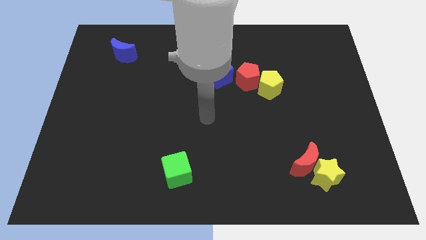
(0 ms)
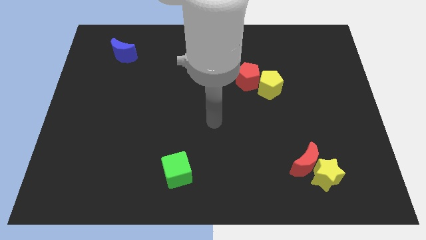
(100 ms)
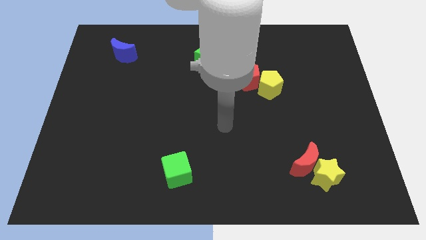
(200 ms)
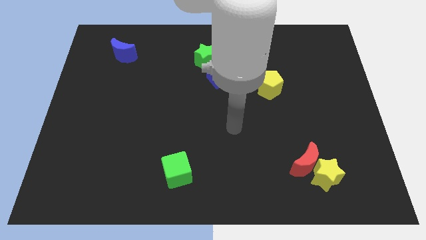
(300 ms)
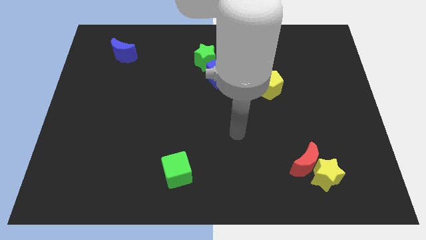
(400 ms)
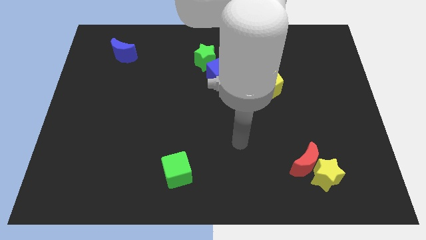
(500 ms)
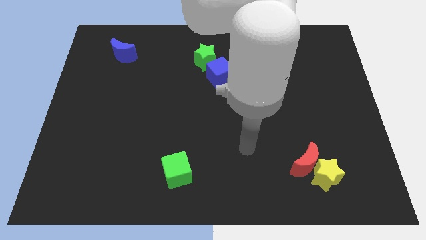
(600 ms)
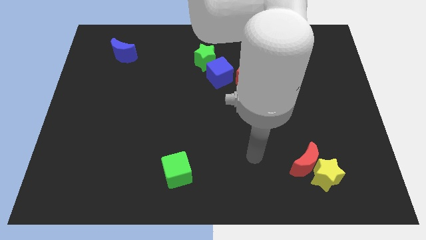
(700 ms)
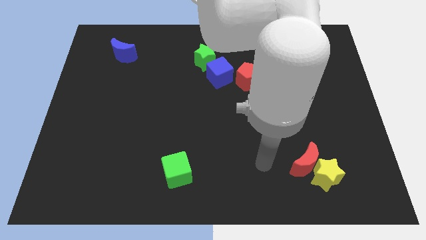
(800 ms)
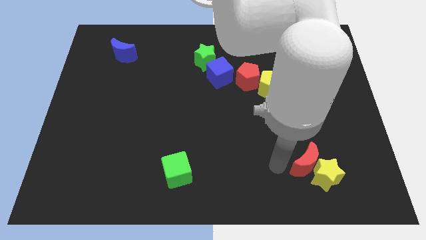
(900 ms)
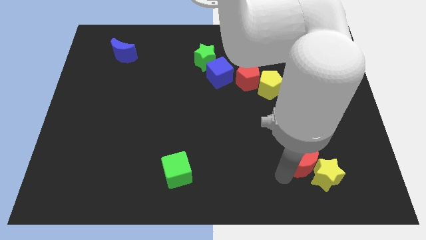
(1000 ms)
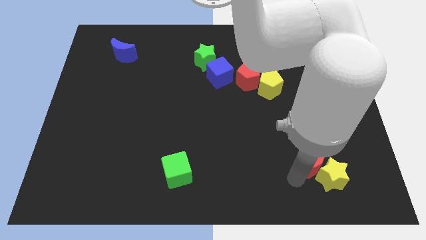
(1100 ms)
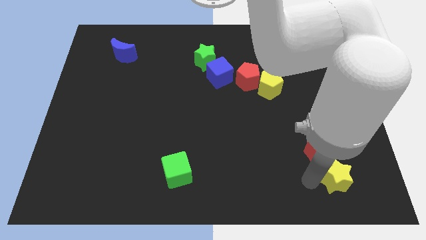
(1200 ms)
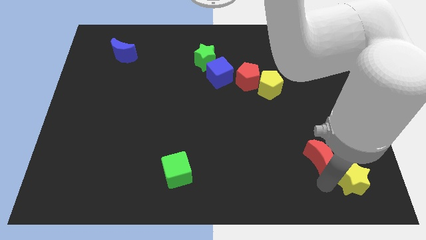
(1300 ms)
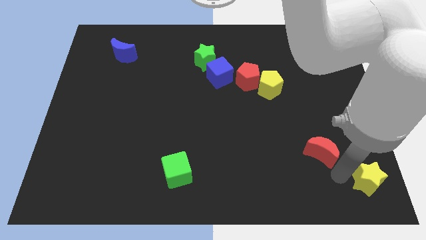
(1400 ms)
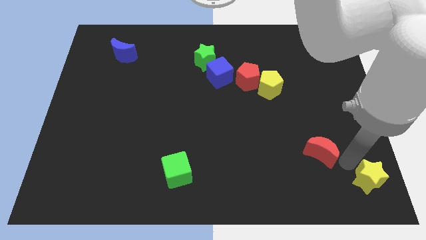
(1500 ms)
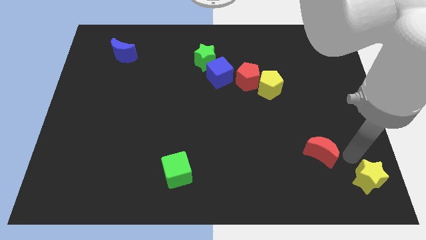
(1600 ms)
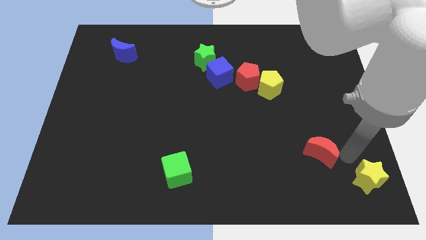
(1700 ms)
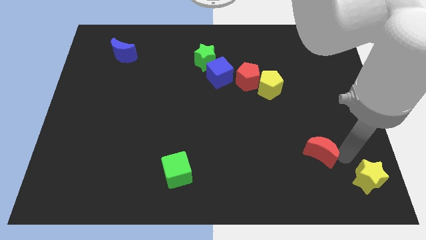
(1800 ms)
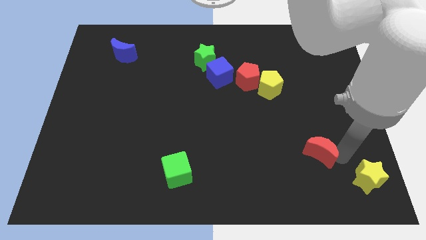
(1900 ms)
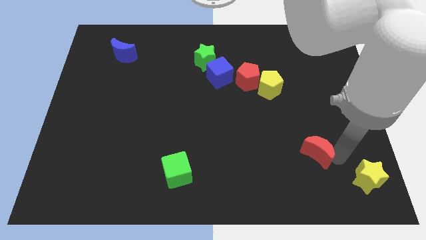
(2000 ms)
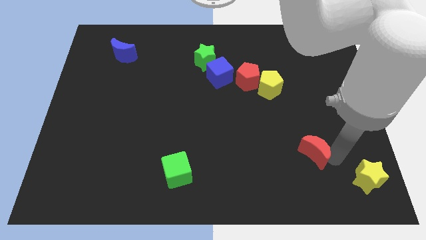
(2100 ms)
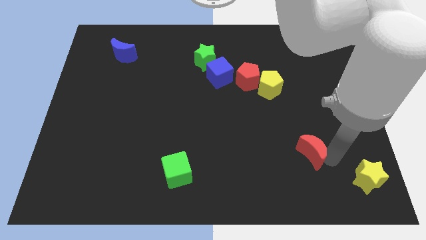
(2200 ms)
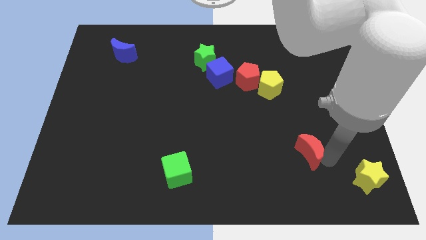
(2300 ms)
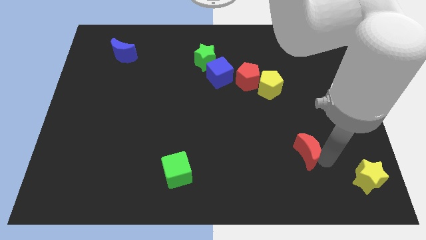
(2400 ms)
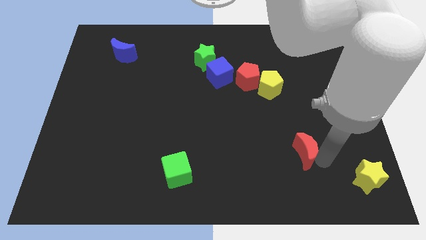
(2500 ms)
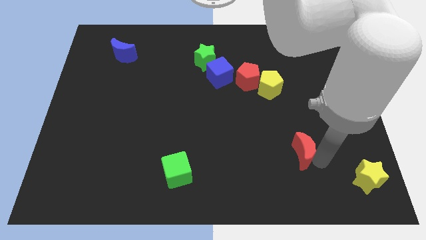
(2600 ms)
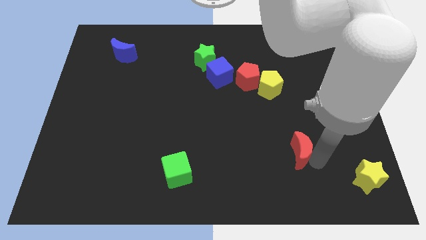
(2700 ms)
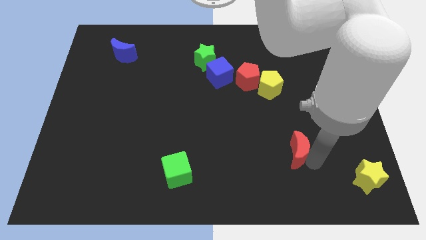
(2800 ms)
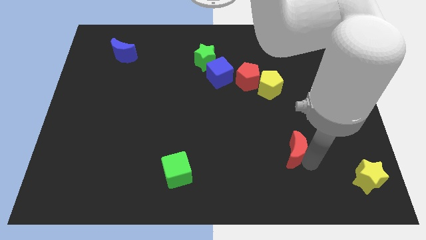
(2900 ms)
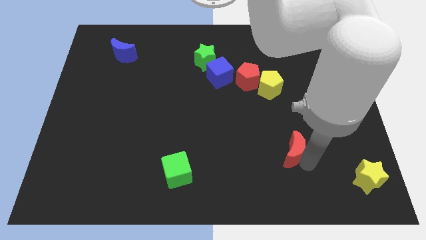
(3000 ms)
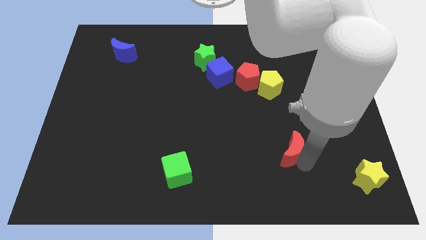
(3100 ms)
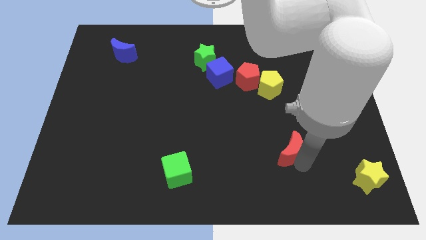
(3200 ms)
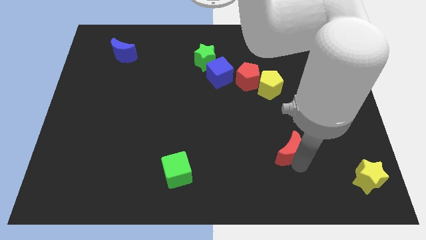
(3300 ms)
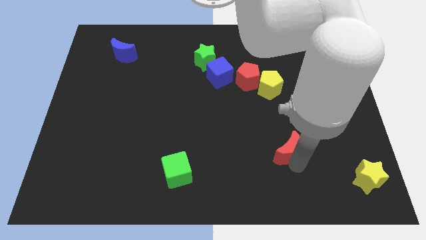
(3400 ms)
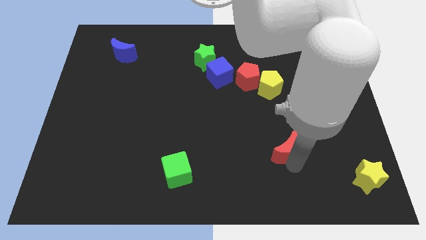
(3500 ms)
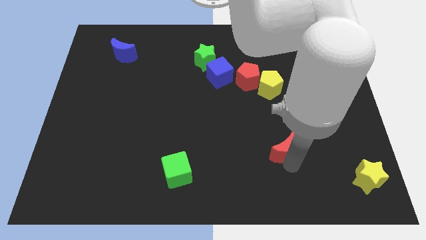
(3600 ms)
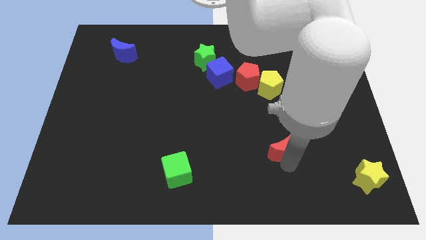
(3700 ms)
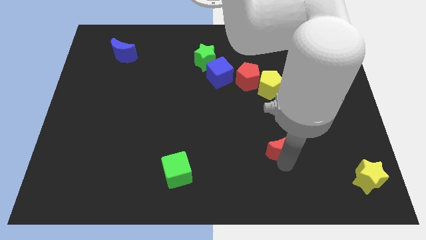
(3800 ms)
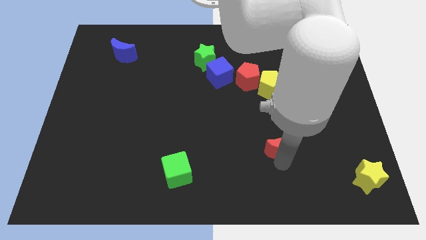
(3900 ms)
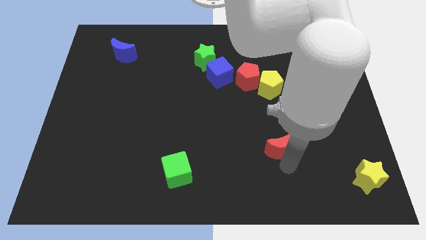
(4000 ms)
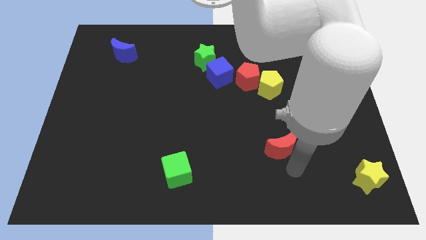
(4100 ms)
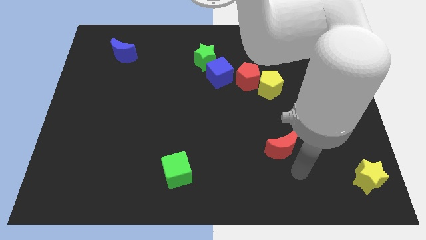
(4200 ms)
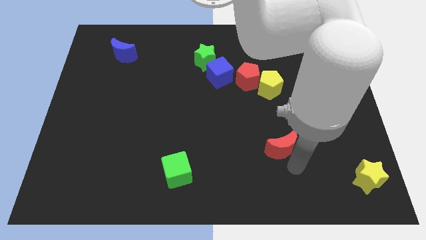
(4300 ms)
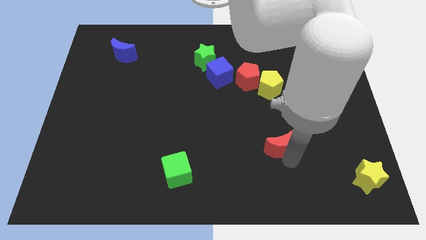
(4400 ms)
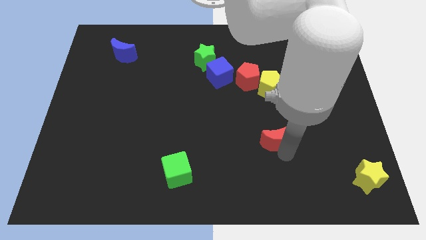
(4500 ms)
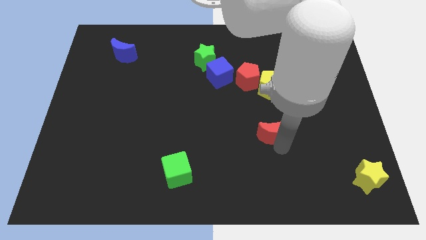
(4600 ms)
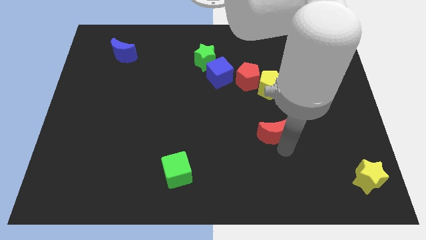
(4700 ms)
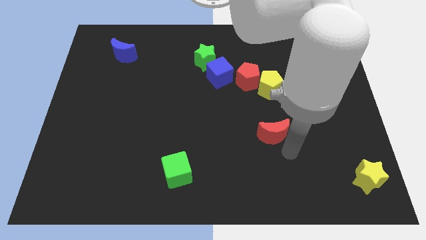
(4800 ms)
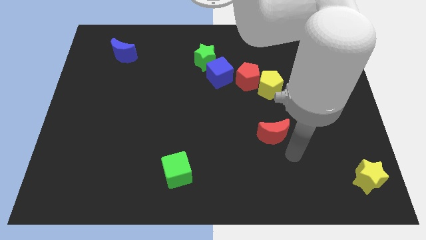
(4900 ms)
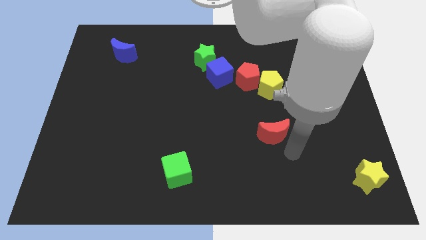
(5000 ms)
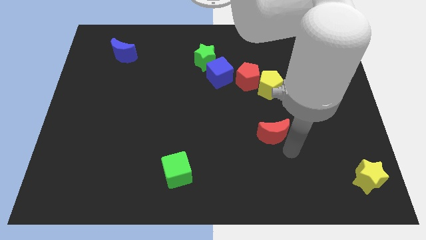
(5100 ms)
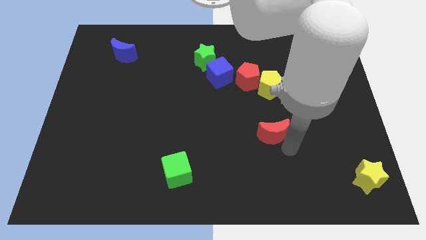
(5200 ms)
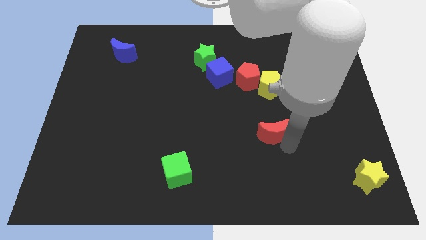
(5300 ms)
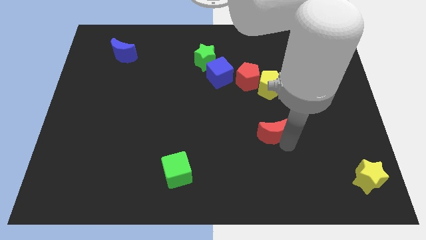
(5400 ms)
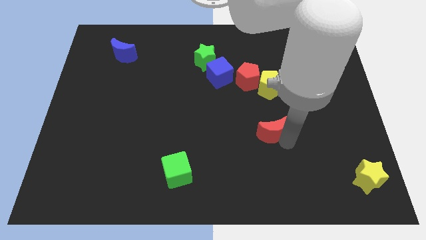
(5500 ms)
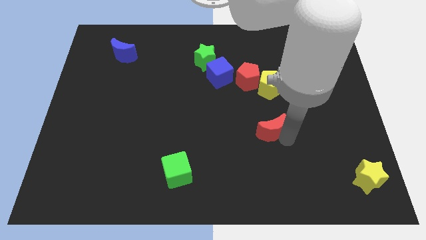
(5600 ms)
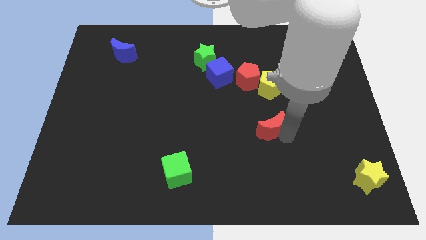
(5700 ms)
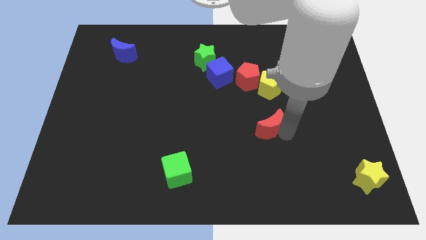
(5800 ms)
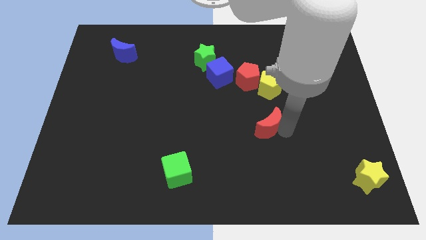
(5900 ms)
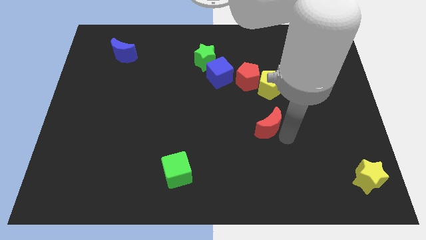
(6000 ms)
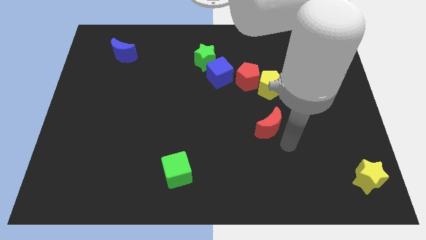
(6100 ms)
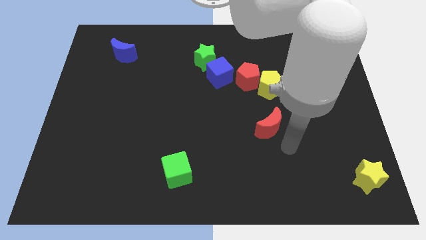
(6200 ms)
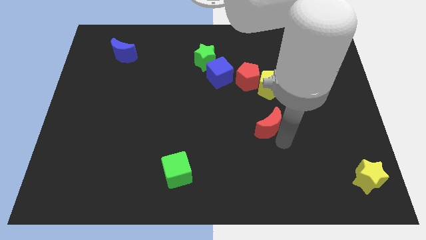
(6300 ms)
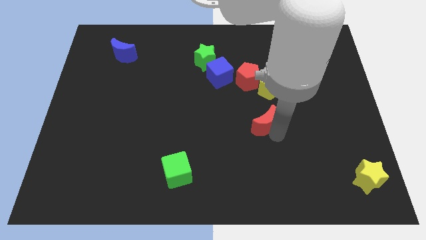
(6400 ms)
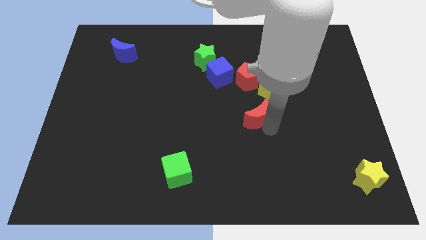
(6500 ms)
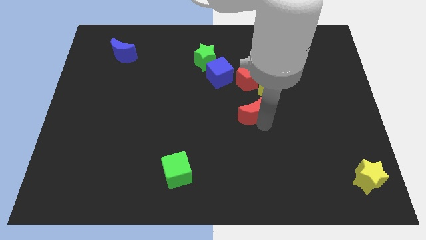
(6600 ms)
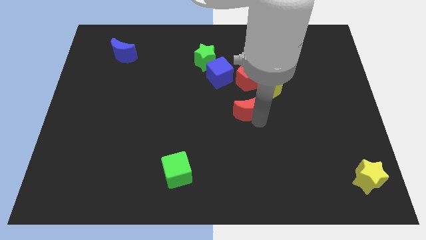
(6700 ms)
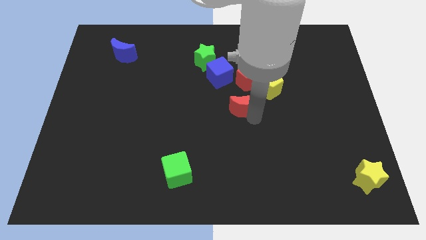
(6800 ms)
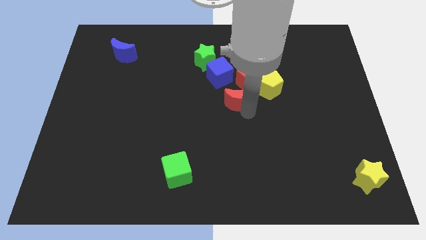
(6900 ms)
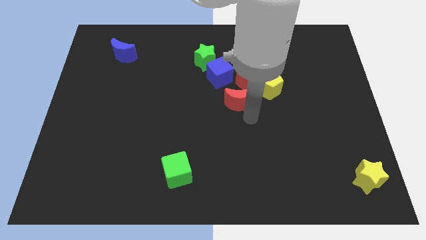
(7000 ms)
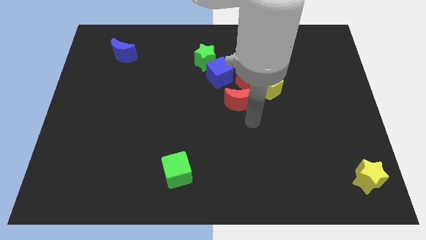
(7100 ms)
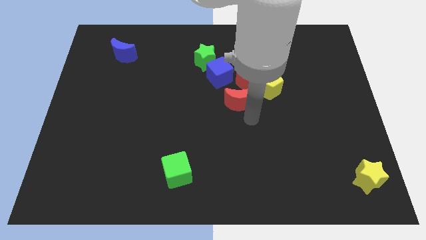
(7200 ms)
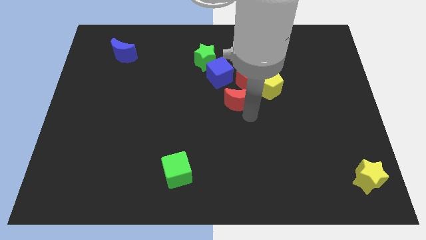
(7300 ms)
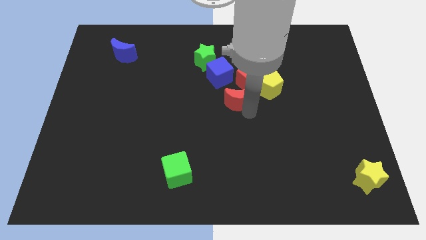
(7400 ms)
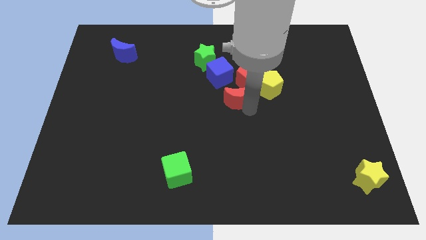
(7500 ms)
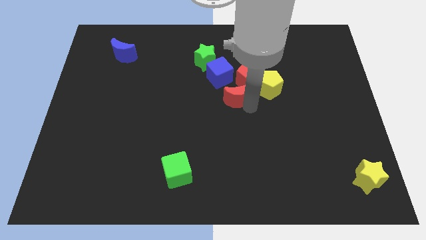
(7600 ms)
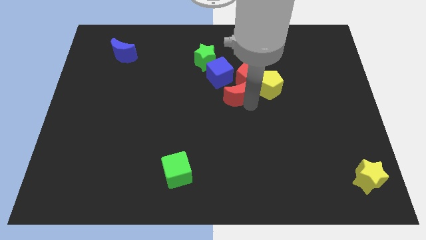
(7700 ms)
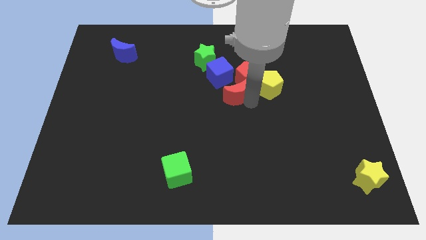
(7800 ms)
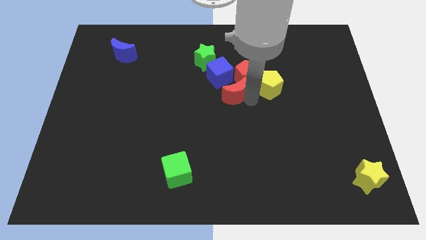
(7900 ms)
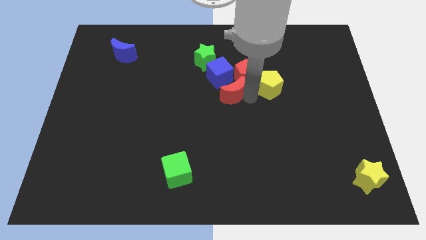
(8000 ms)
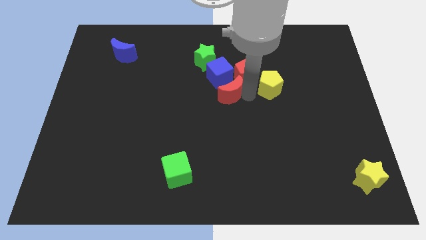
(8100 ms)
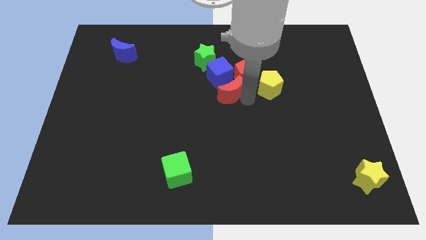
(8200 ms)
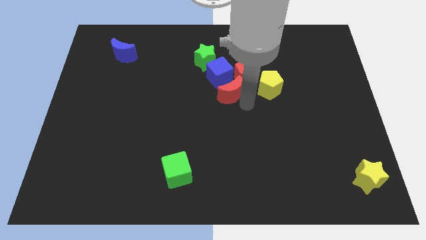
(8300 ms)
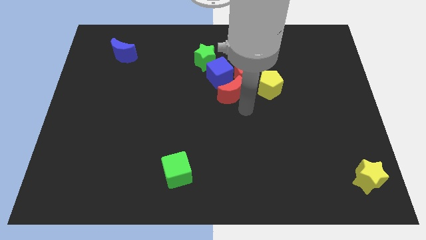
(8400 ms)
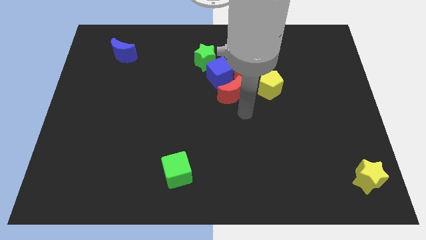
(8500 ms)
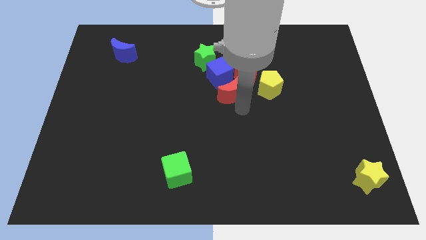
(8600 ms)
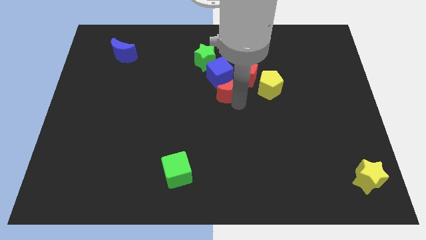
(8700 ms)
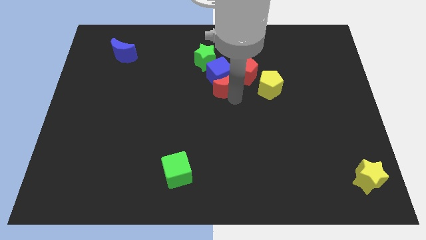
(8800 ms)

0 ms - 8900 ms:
push the red moon next to the blue cube
